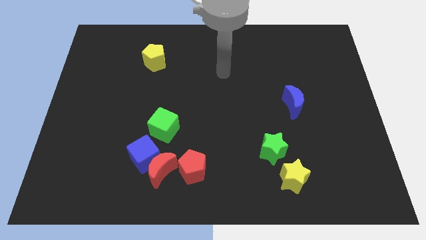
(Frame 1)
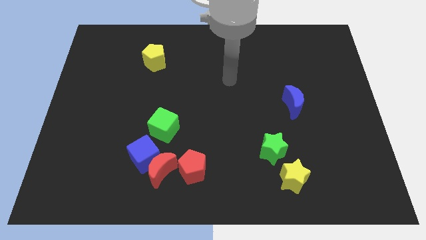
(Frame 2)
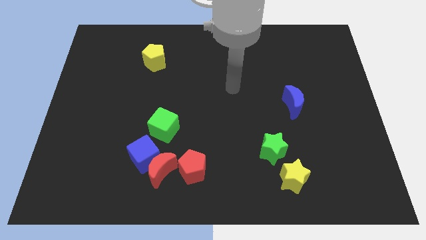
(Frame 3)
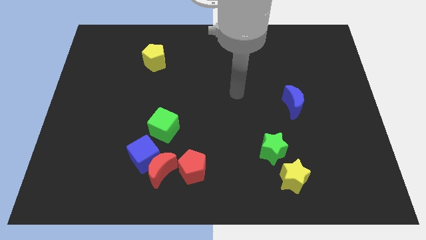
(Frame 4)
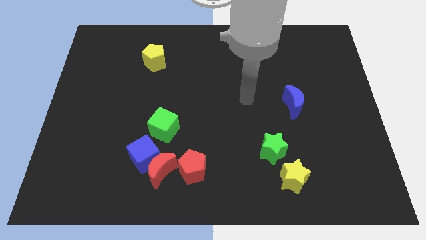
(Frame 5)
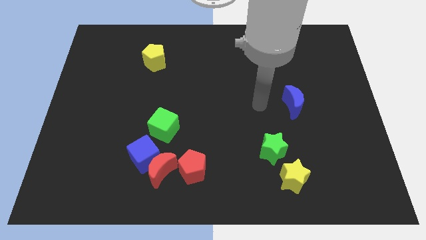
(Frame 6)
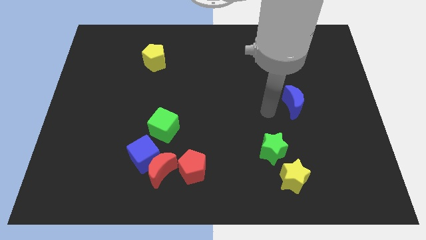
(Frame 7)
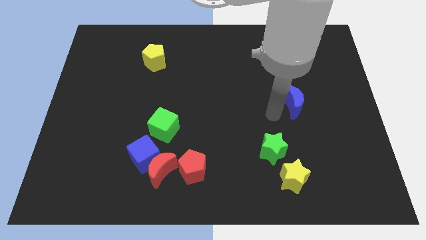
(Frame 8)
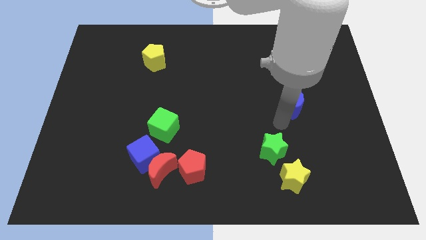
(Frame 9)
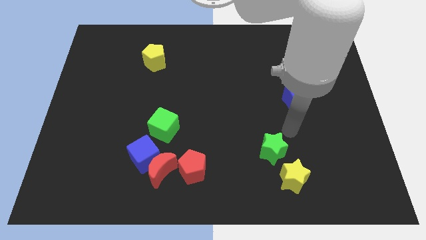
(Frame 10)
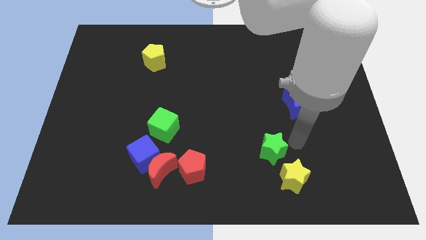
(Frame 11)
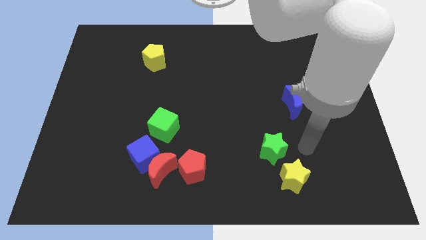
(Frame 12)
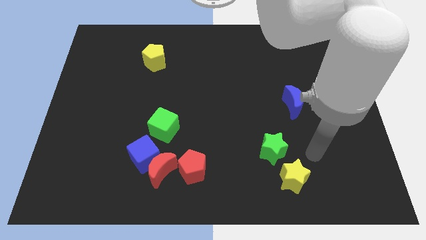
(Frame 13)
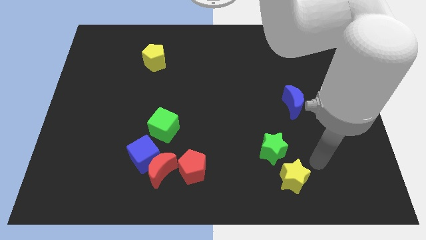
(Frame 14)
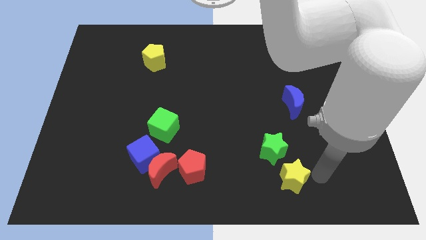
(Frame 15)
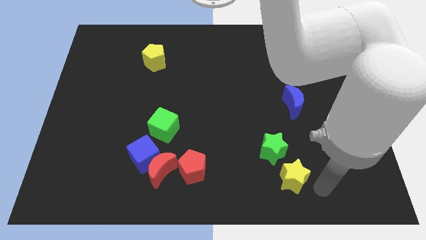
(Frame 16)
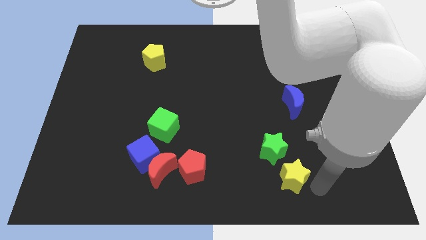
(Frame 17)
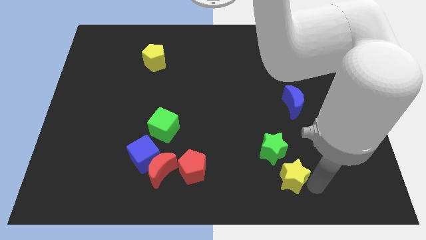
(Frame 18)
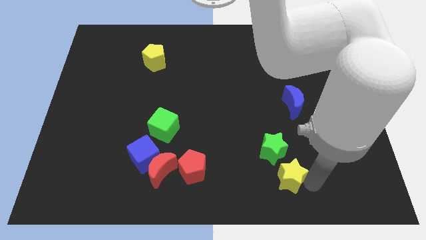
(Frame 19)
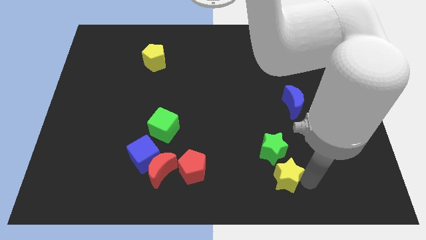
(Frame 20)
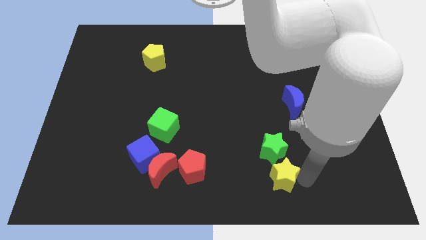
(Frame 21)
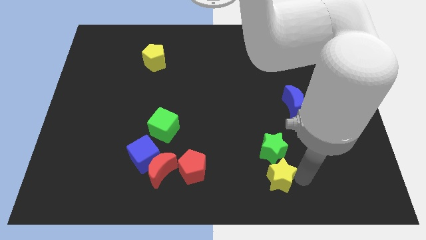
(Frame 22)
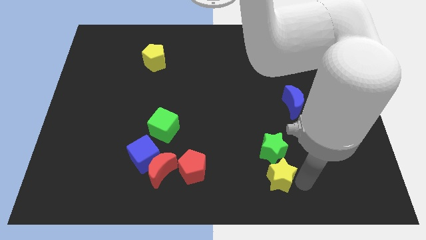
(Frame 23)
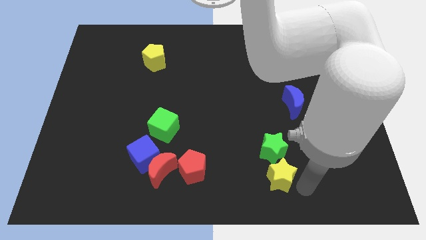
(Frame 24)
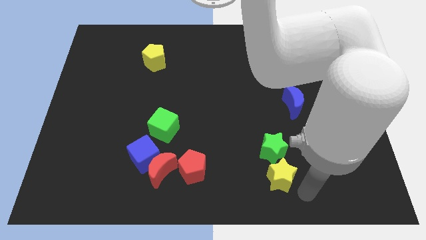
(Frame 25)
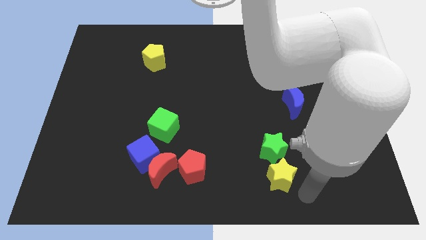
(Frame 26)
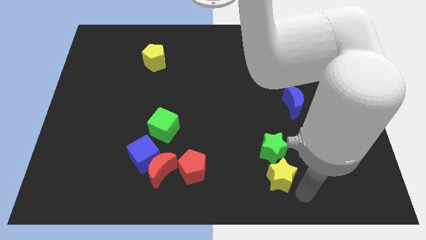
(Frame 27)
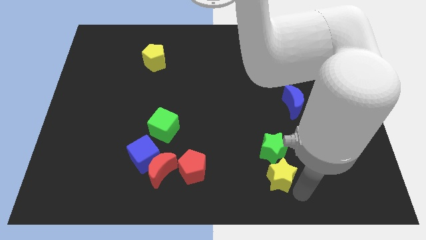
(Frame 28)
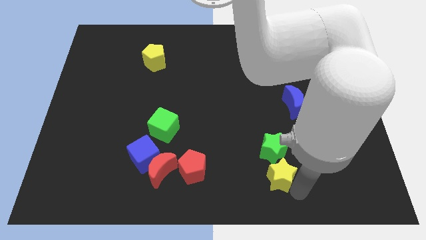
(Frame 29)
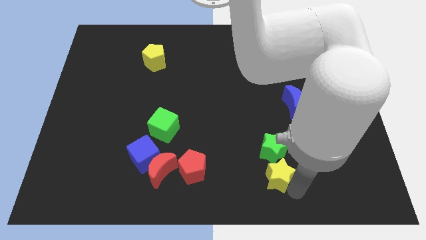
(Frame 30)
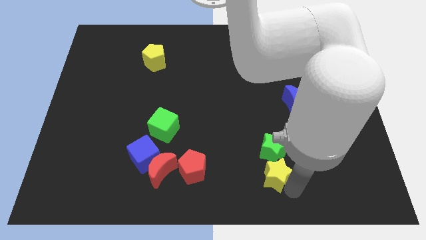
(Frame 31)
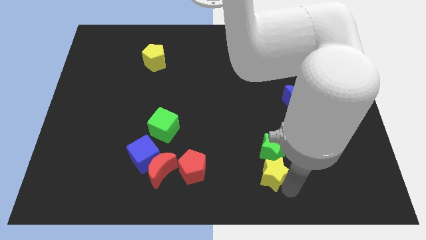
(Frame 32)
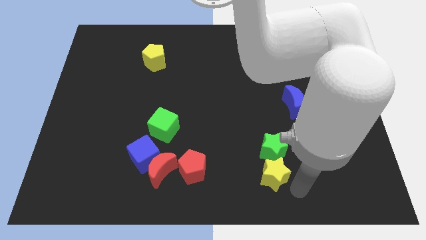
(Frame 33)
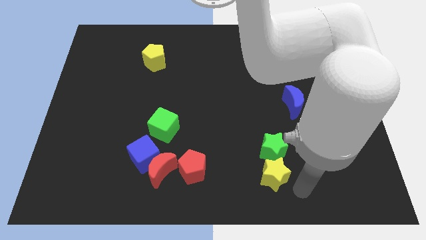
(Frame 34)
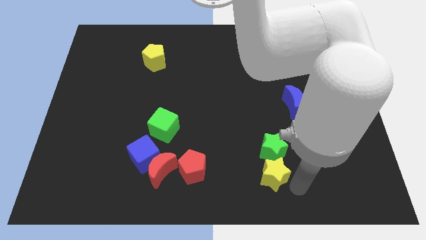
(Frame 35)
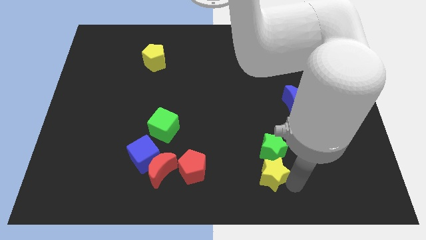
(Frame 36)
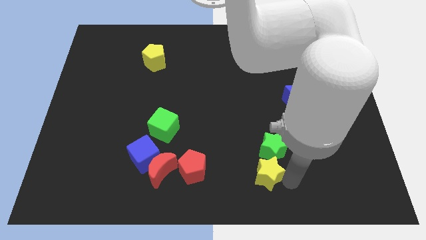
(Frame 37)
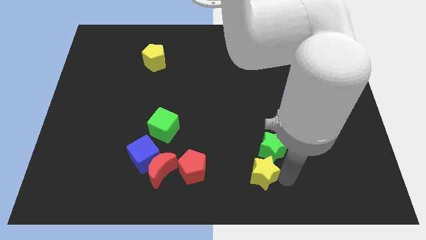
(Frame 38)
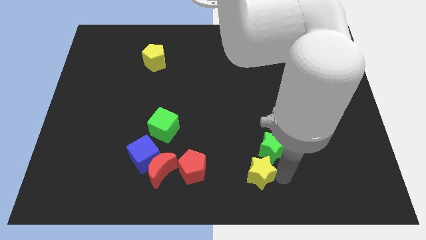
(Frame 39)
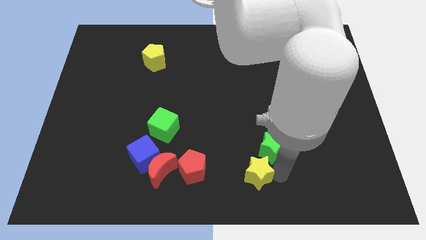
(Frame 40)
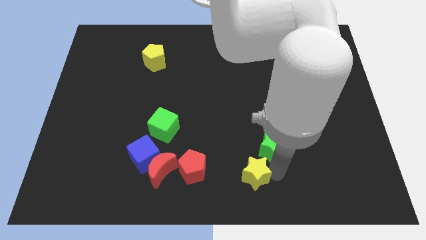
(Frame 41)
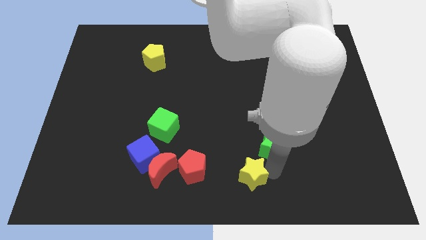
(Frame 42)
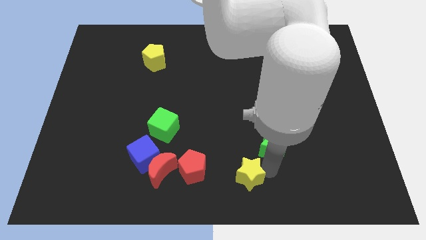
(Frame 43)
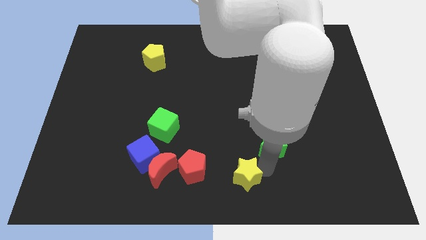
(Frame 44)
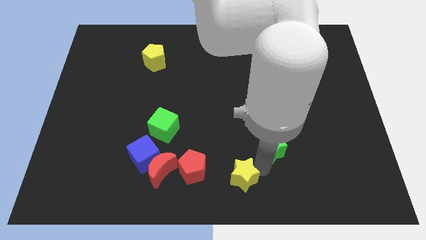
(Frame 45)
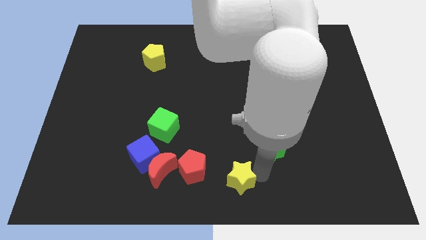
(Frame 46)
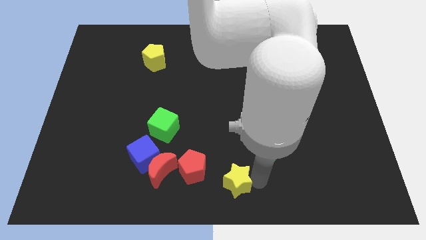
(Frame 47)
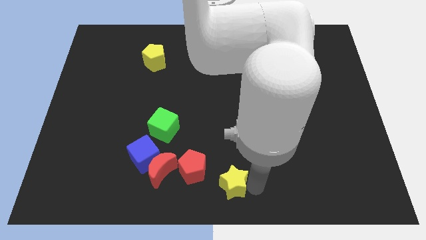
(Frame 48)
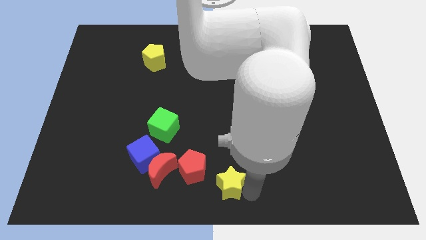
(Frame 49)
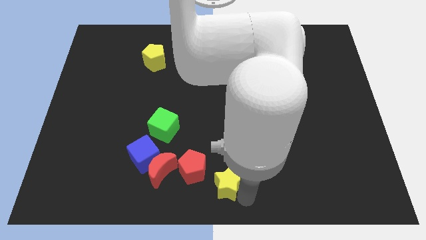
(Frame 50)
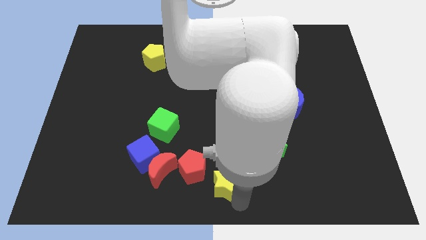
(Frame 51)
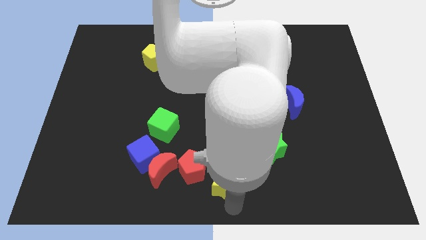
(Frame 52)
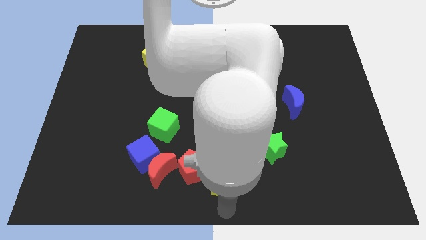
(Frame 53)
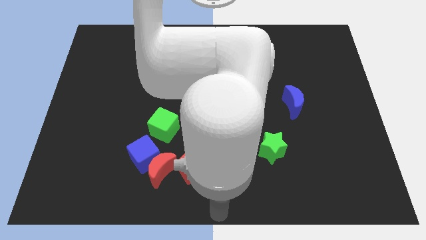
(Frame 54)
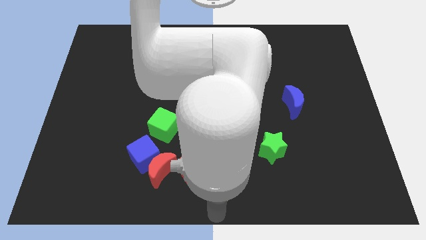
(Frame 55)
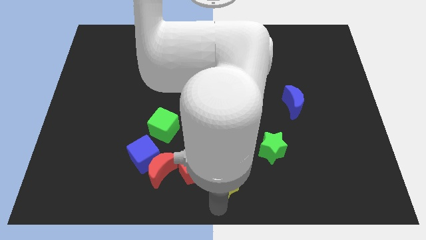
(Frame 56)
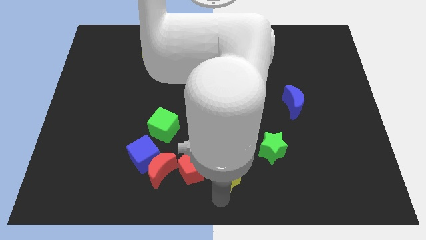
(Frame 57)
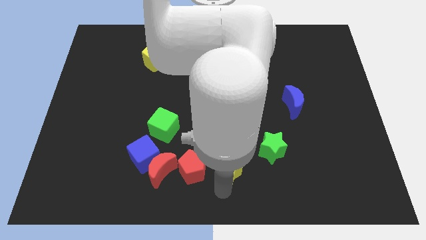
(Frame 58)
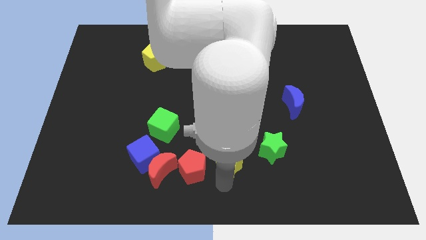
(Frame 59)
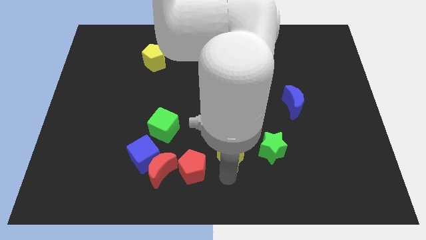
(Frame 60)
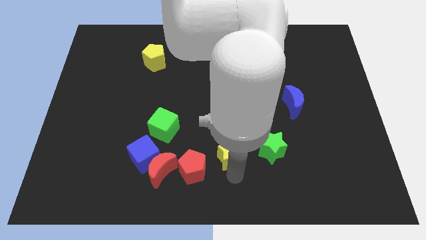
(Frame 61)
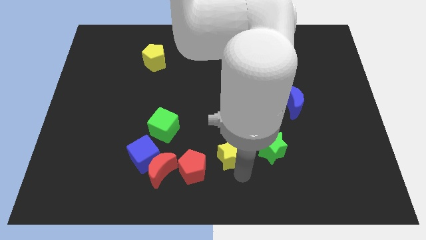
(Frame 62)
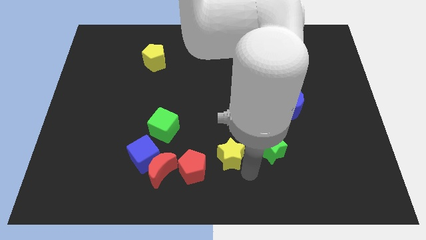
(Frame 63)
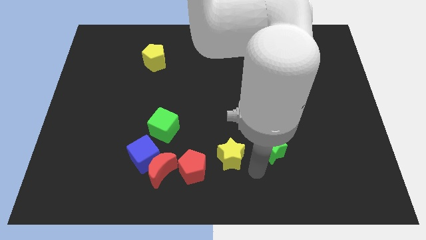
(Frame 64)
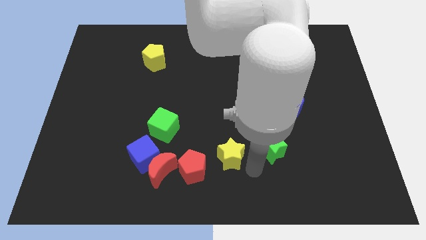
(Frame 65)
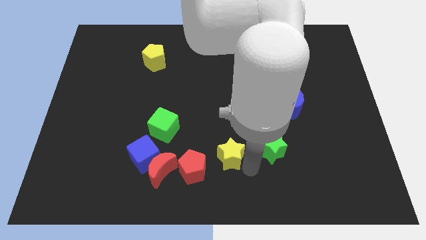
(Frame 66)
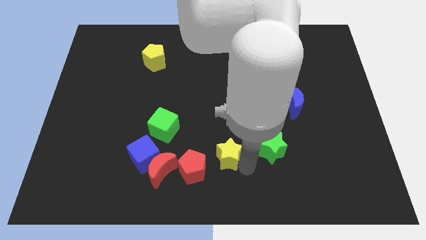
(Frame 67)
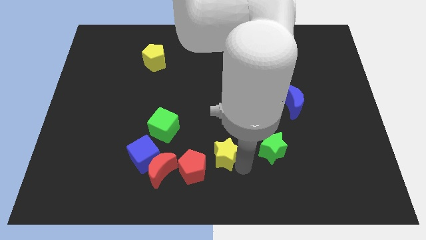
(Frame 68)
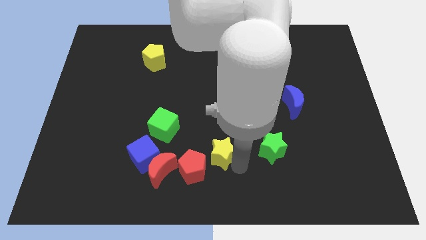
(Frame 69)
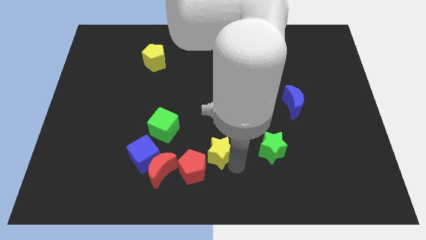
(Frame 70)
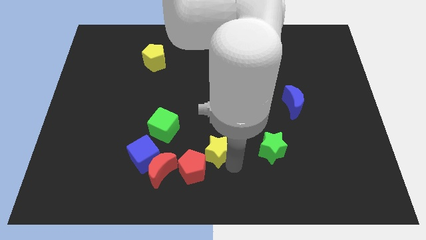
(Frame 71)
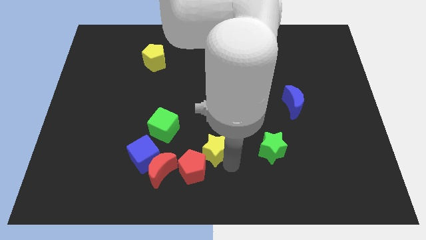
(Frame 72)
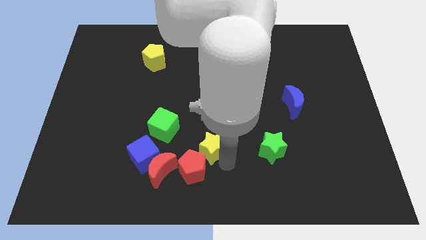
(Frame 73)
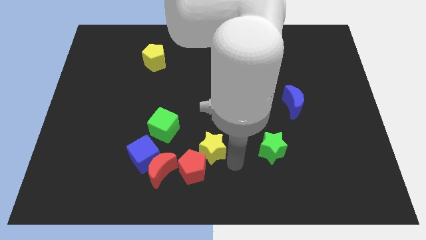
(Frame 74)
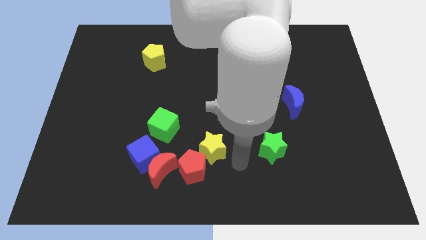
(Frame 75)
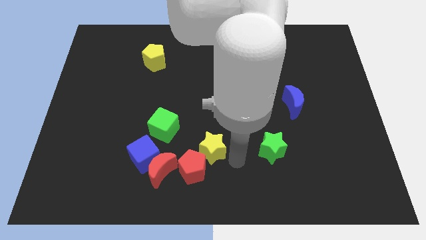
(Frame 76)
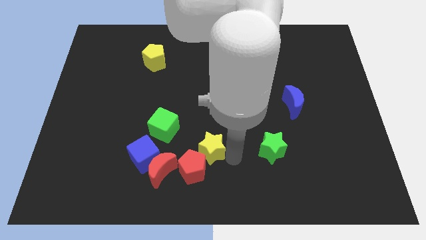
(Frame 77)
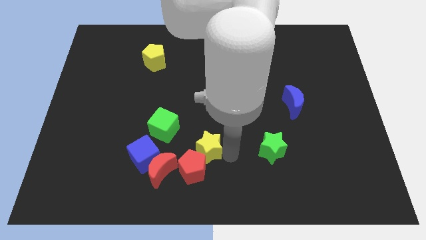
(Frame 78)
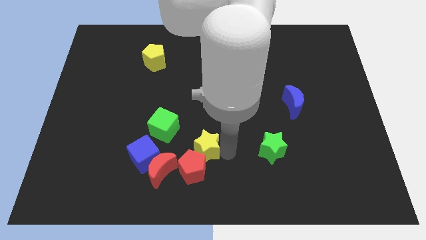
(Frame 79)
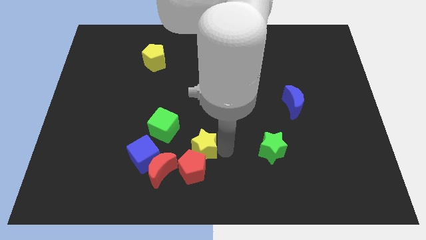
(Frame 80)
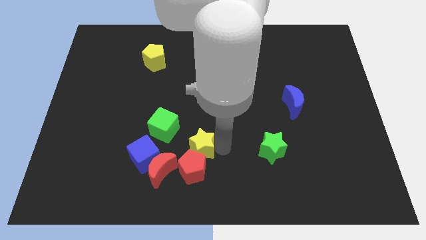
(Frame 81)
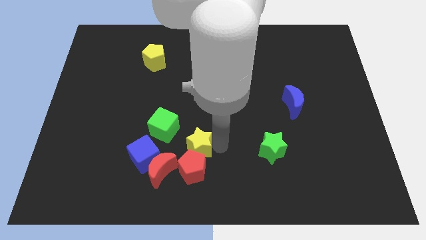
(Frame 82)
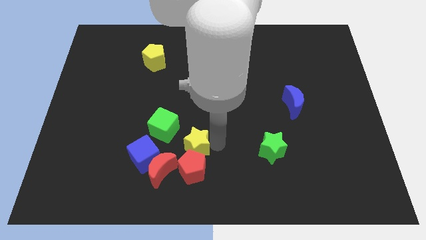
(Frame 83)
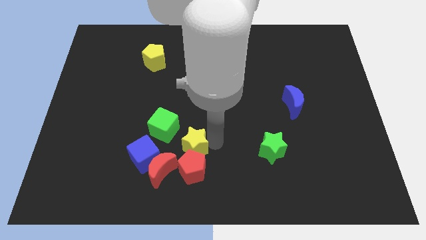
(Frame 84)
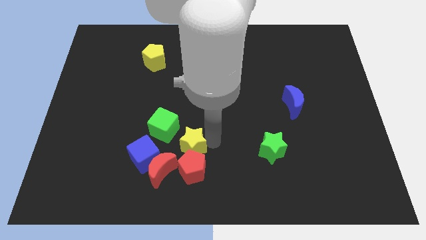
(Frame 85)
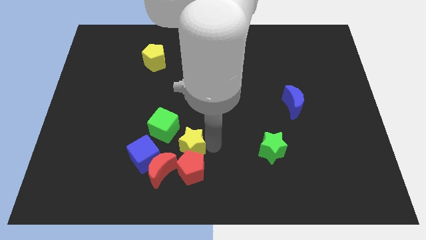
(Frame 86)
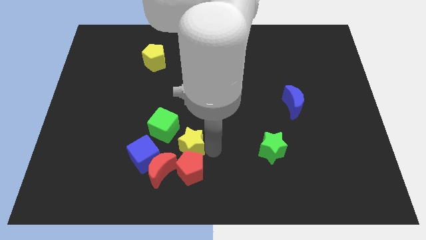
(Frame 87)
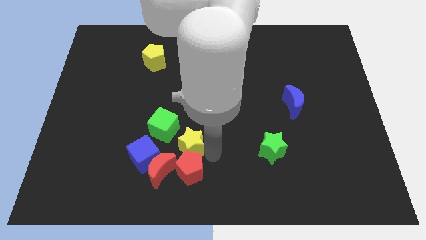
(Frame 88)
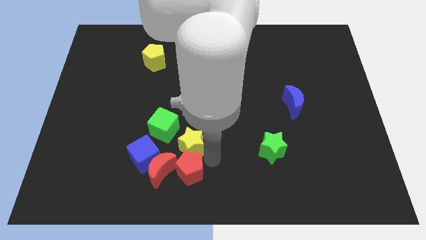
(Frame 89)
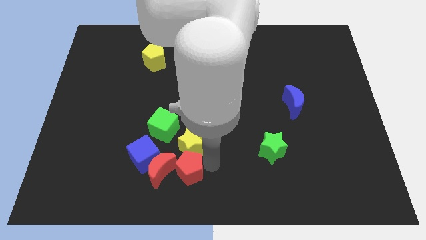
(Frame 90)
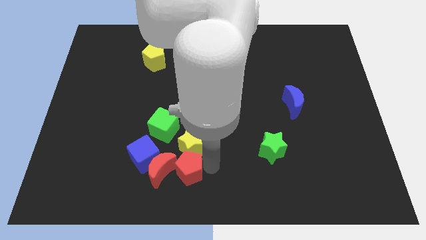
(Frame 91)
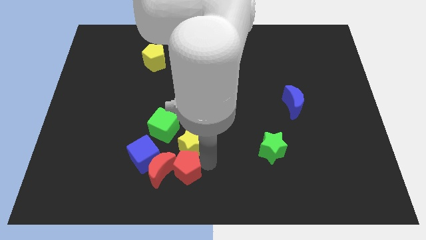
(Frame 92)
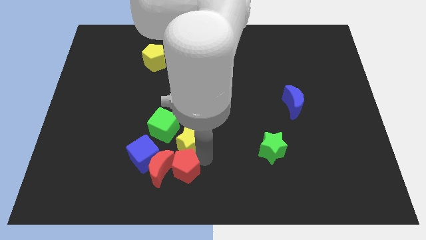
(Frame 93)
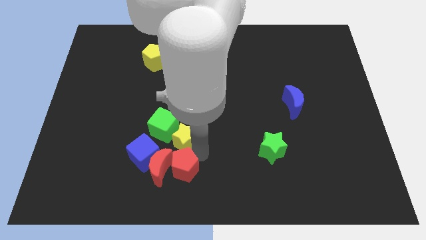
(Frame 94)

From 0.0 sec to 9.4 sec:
move the yellow star close to the green cube
